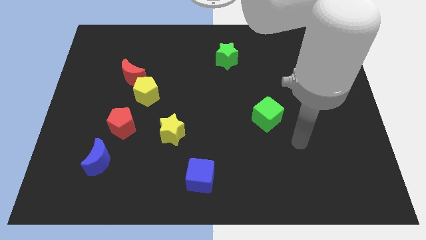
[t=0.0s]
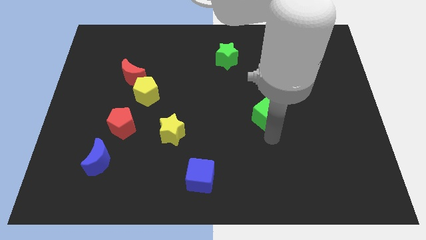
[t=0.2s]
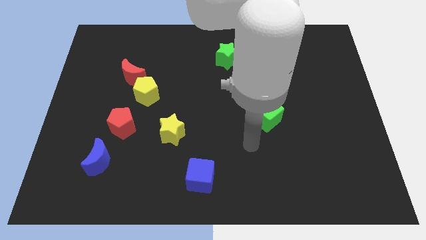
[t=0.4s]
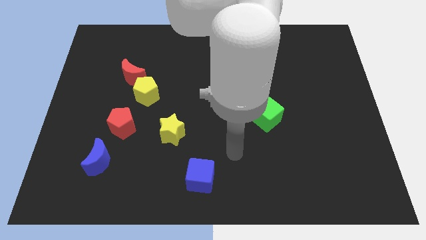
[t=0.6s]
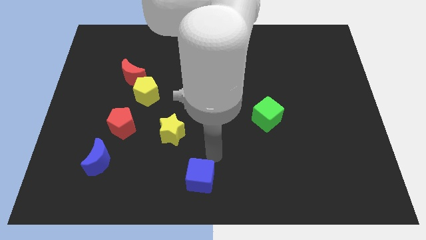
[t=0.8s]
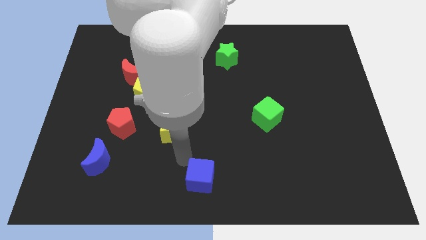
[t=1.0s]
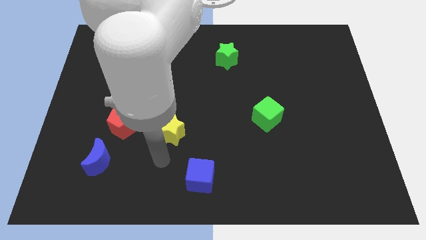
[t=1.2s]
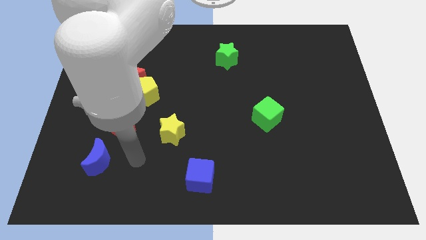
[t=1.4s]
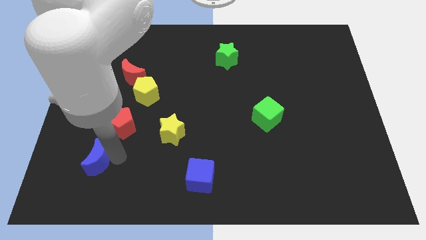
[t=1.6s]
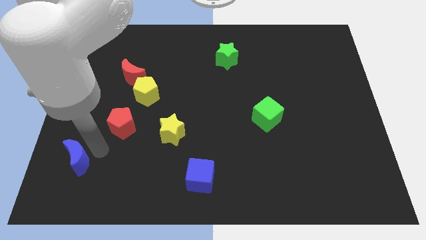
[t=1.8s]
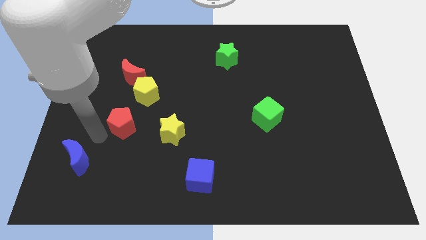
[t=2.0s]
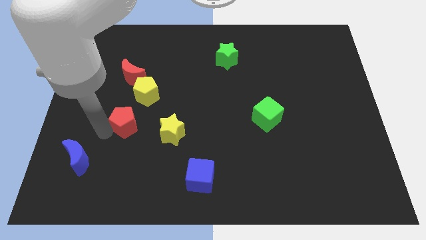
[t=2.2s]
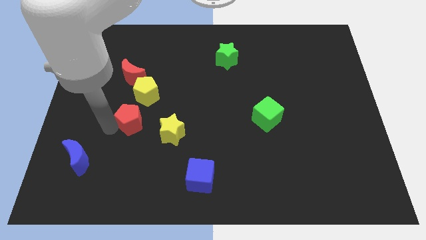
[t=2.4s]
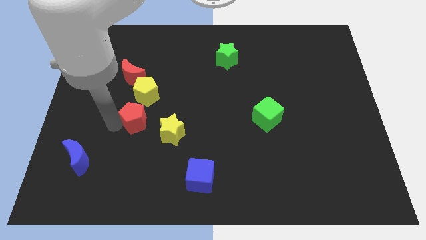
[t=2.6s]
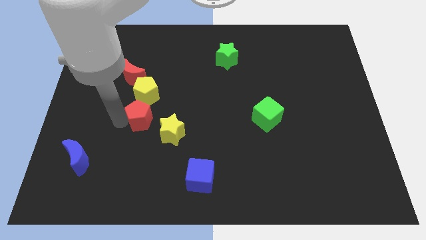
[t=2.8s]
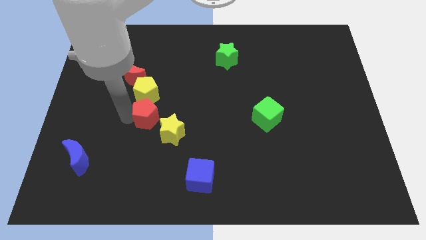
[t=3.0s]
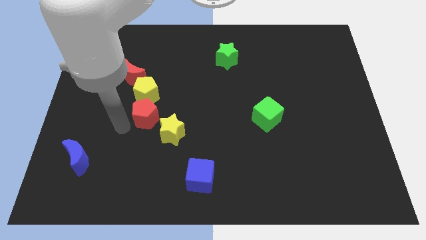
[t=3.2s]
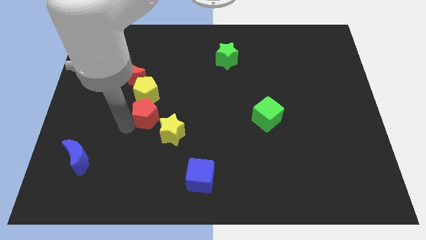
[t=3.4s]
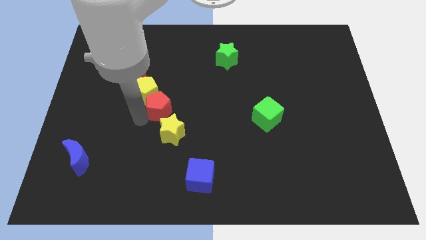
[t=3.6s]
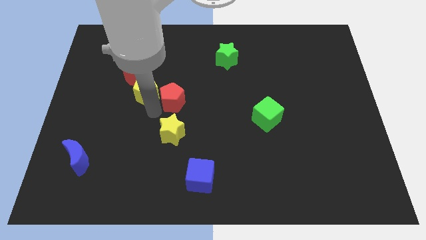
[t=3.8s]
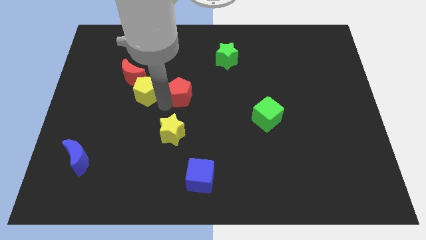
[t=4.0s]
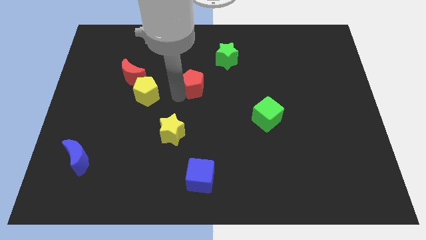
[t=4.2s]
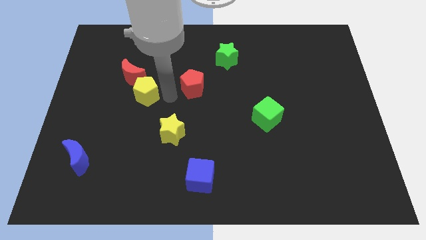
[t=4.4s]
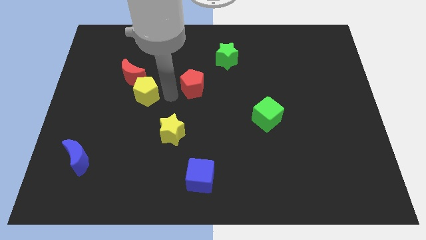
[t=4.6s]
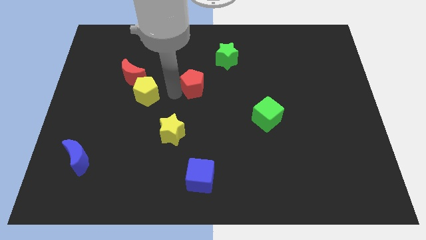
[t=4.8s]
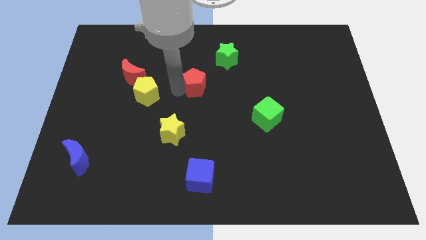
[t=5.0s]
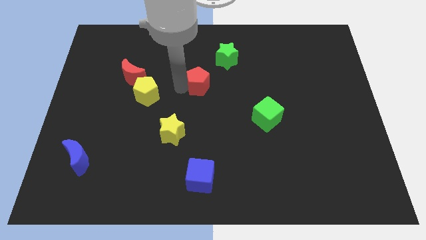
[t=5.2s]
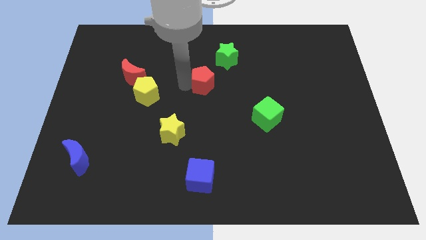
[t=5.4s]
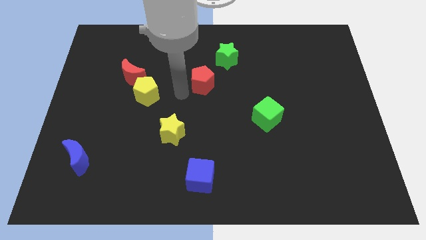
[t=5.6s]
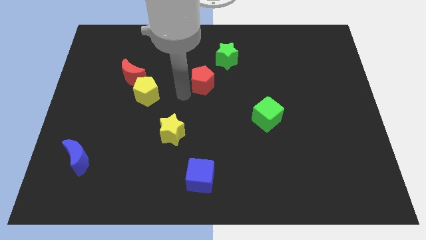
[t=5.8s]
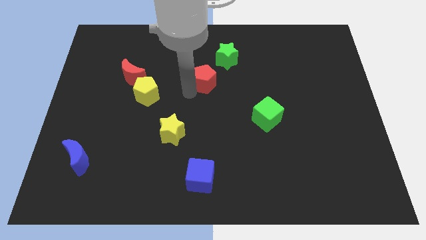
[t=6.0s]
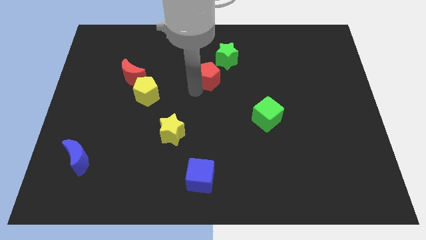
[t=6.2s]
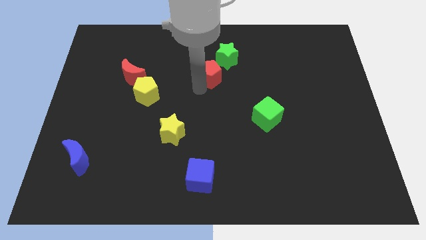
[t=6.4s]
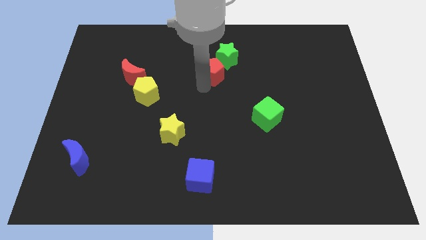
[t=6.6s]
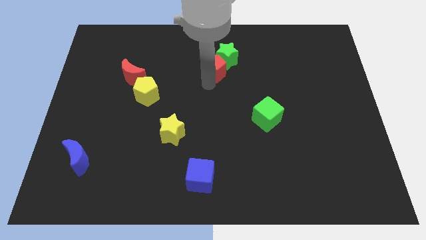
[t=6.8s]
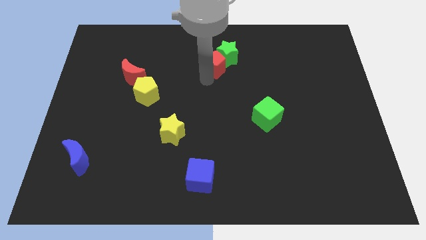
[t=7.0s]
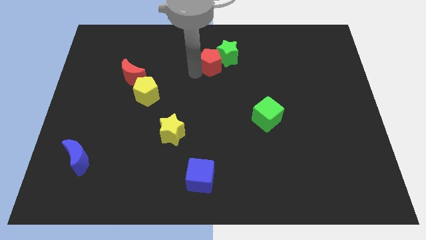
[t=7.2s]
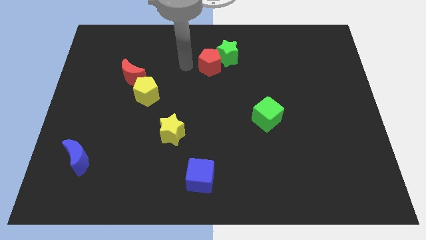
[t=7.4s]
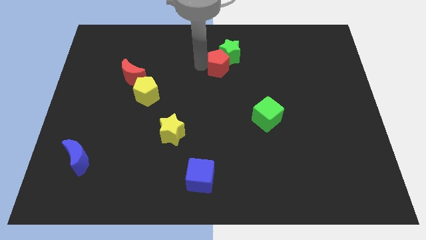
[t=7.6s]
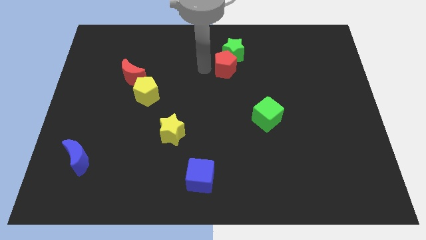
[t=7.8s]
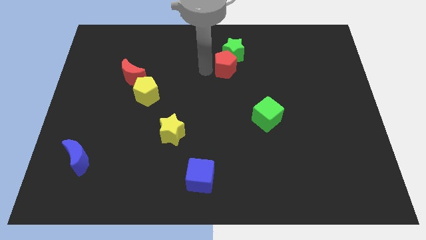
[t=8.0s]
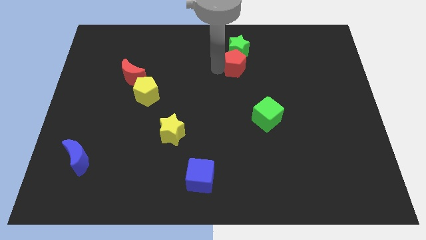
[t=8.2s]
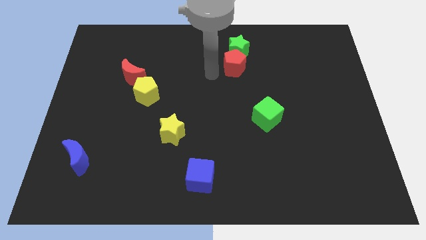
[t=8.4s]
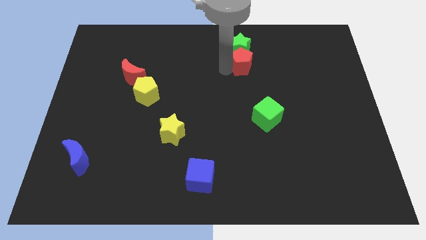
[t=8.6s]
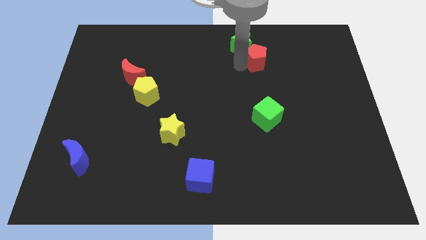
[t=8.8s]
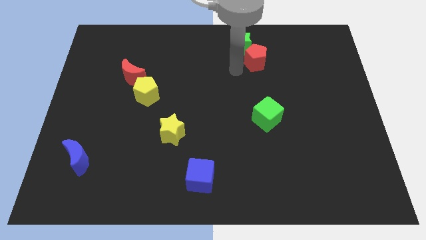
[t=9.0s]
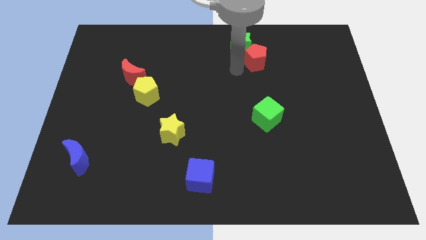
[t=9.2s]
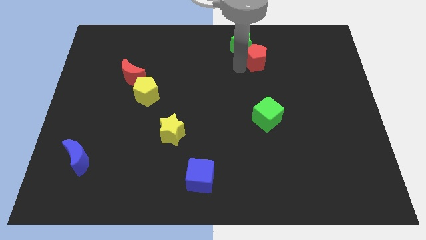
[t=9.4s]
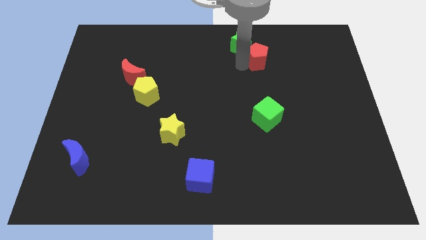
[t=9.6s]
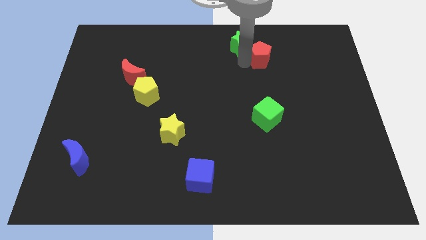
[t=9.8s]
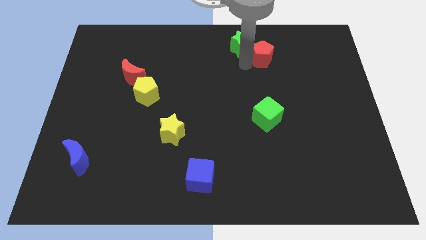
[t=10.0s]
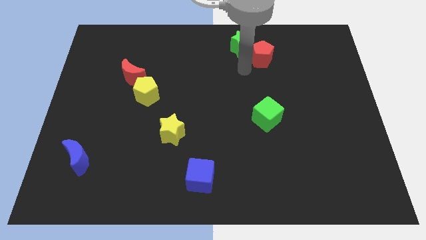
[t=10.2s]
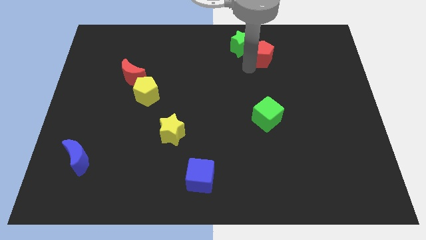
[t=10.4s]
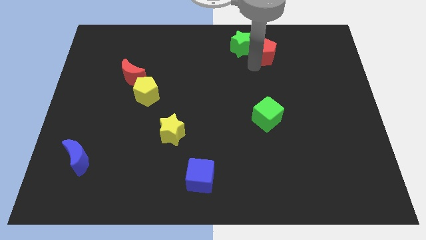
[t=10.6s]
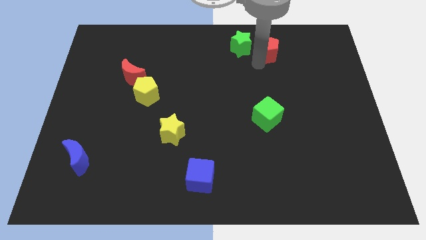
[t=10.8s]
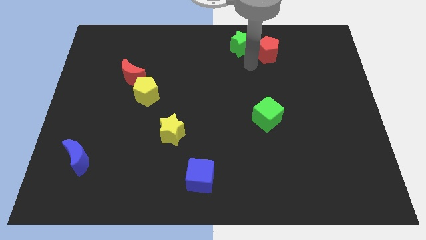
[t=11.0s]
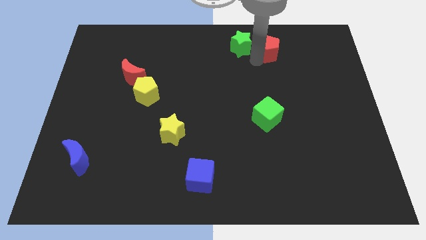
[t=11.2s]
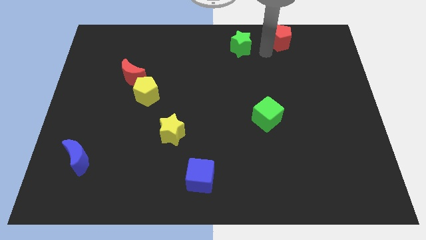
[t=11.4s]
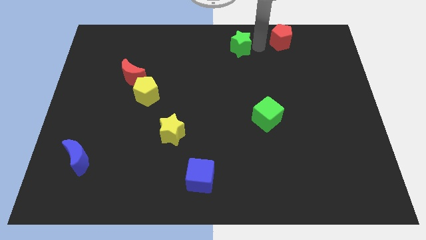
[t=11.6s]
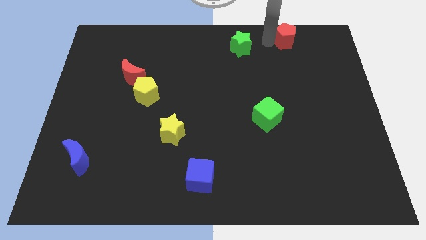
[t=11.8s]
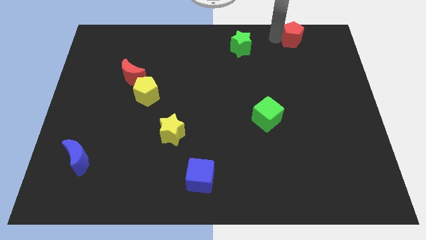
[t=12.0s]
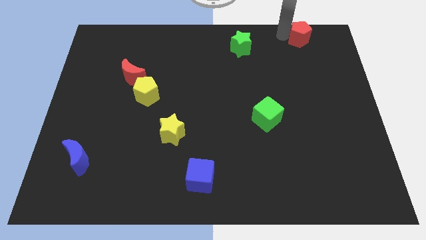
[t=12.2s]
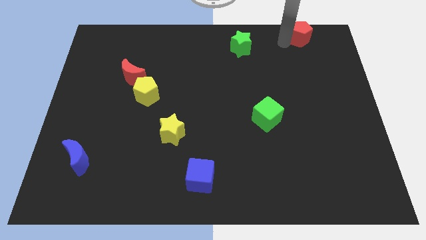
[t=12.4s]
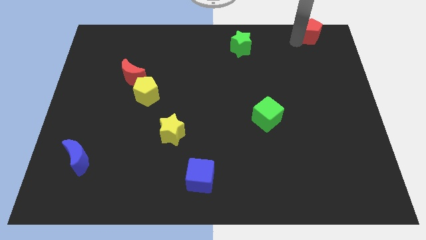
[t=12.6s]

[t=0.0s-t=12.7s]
put the red pentagon to the upper right corner
